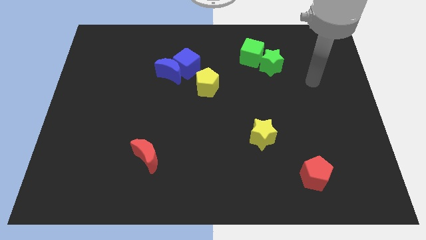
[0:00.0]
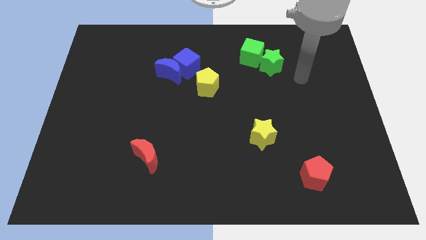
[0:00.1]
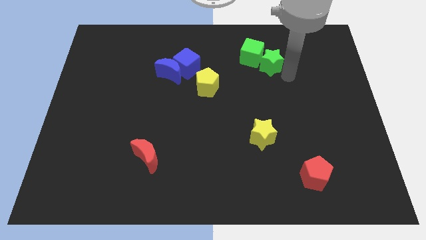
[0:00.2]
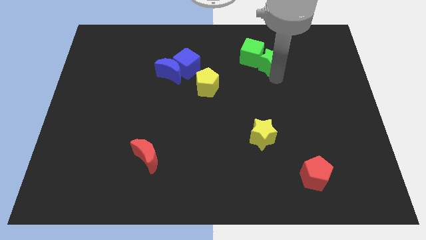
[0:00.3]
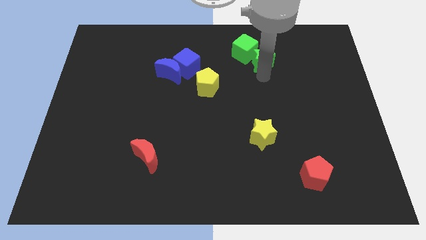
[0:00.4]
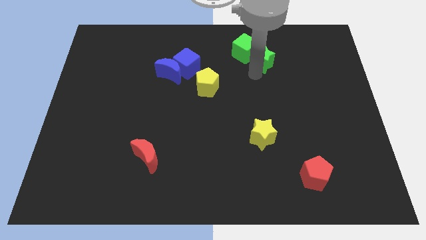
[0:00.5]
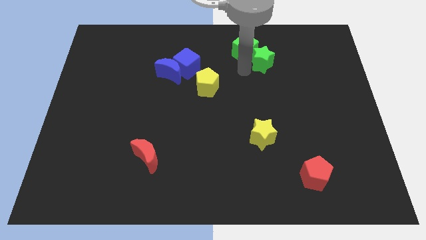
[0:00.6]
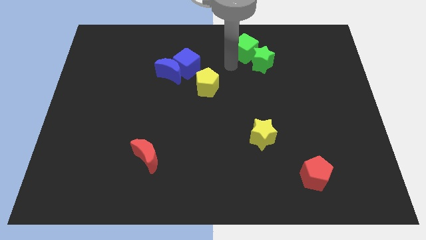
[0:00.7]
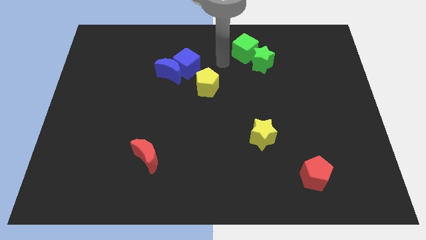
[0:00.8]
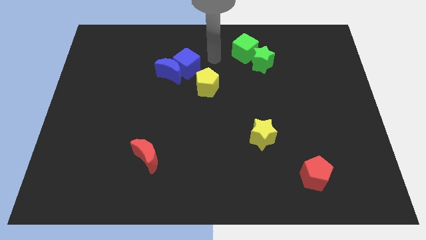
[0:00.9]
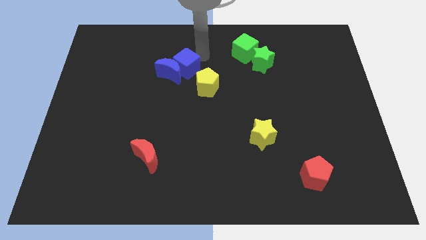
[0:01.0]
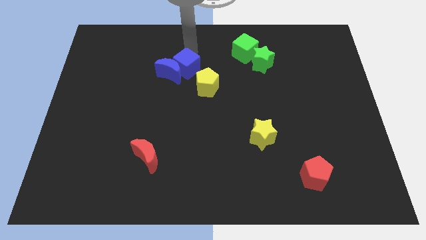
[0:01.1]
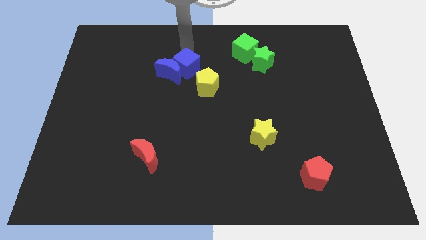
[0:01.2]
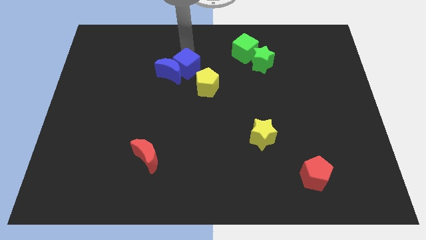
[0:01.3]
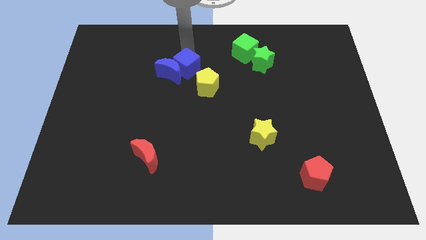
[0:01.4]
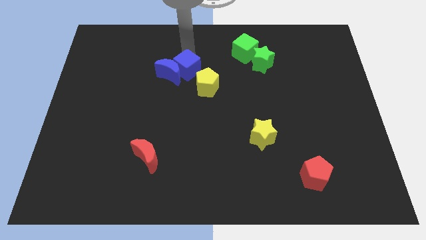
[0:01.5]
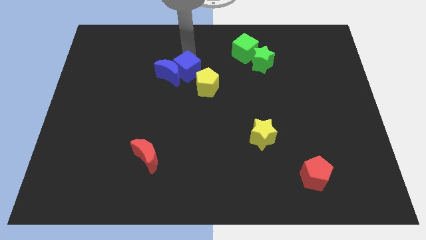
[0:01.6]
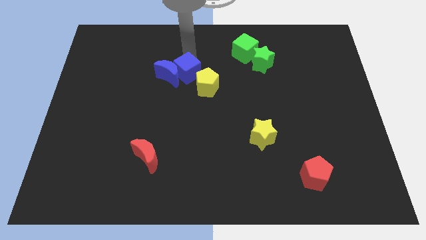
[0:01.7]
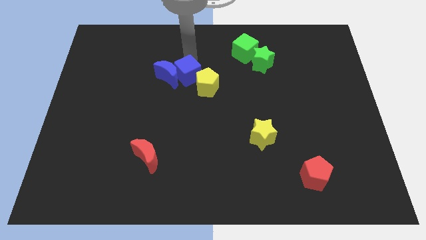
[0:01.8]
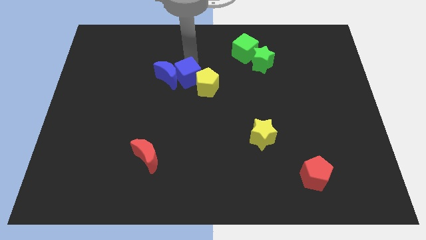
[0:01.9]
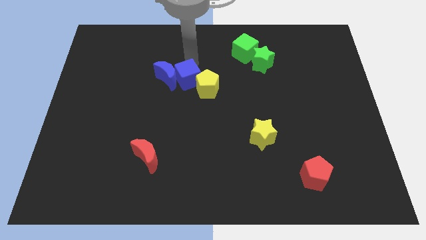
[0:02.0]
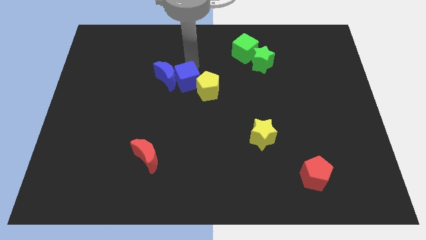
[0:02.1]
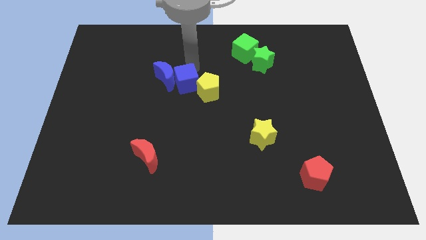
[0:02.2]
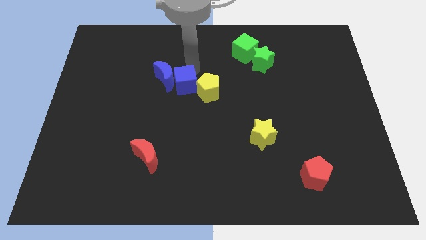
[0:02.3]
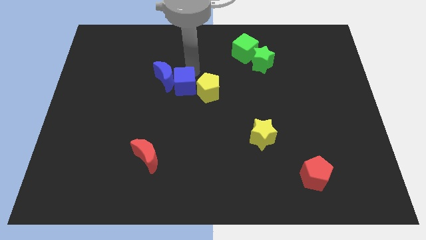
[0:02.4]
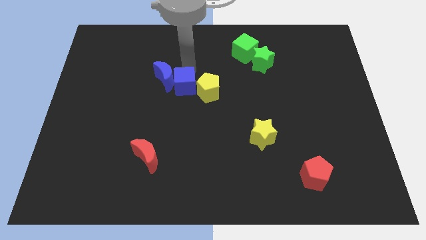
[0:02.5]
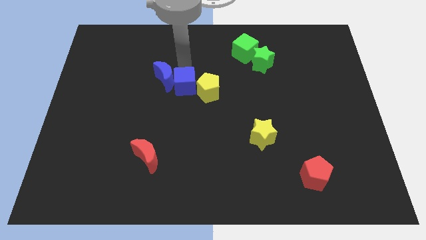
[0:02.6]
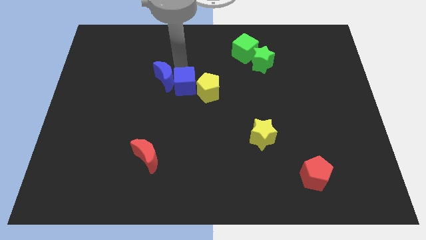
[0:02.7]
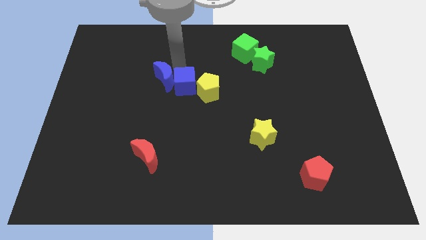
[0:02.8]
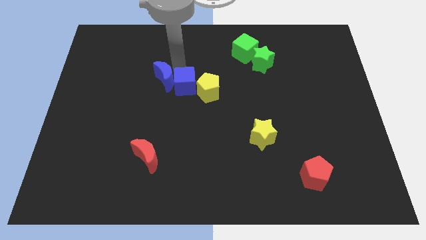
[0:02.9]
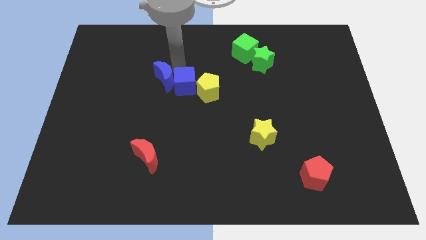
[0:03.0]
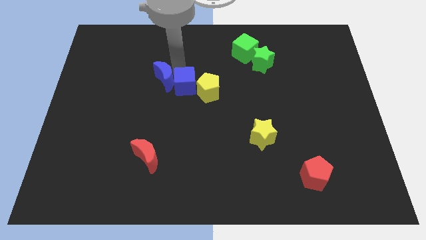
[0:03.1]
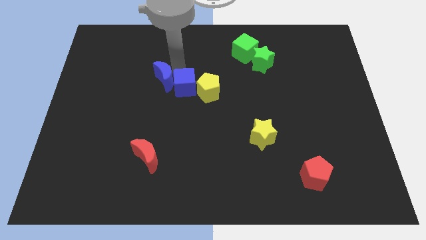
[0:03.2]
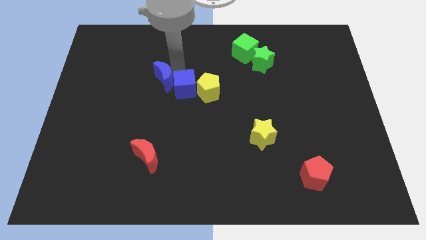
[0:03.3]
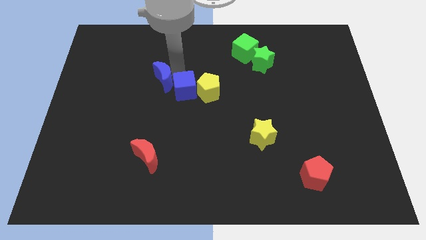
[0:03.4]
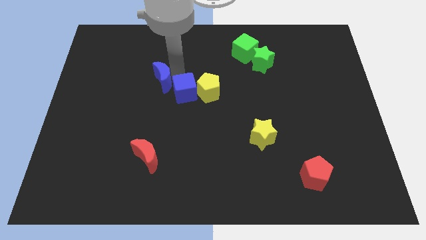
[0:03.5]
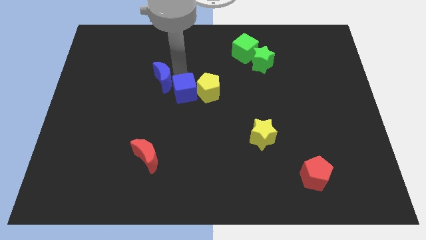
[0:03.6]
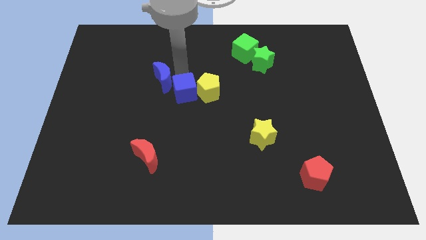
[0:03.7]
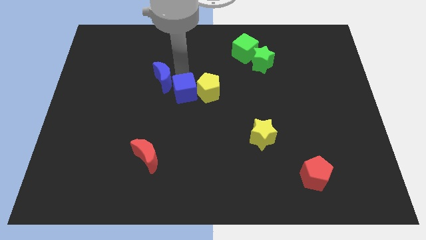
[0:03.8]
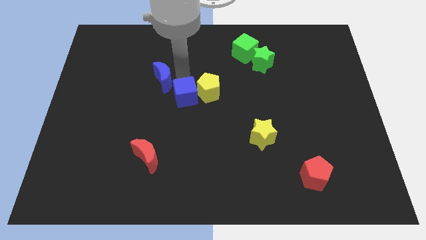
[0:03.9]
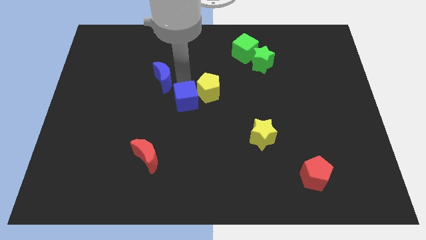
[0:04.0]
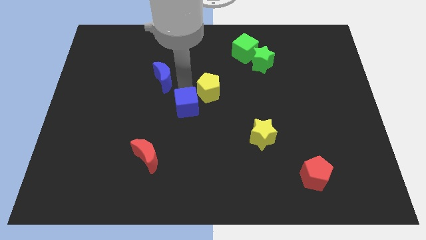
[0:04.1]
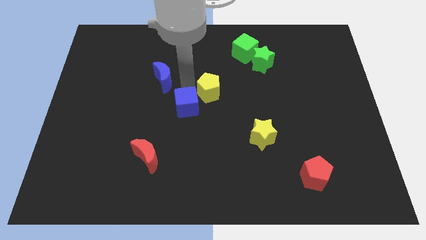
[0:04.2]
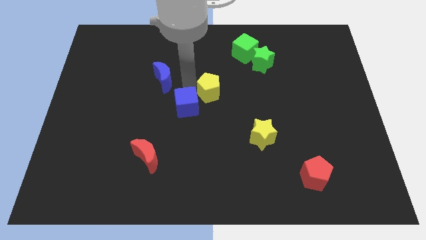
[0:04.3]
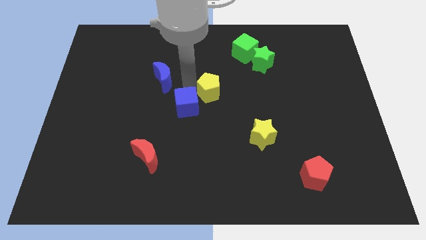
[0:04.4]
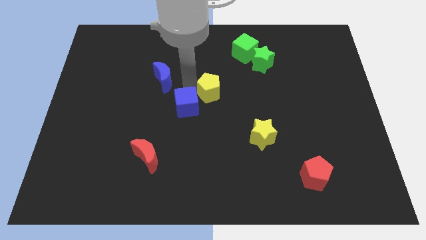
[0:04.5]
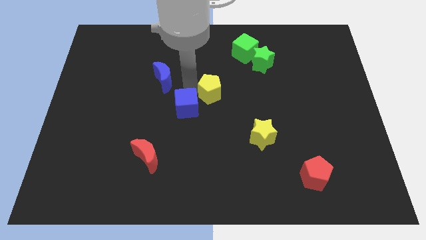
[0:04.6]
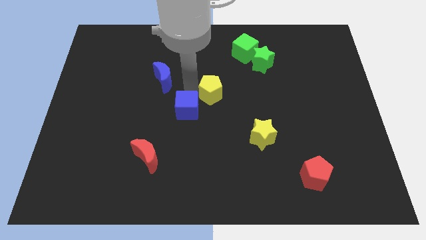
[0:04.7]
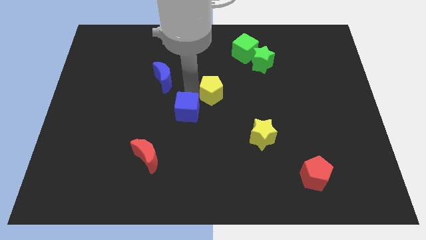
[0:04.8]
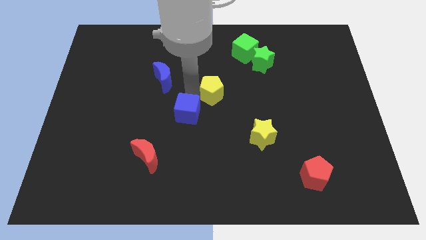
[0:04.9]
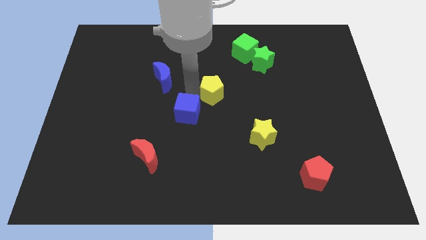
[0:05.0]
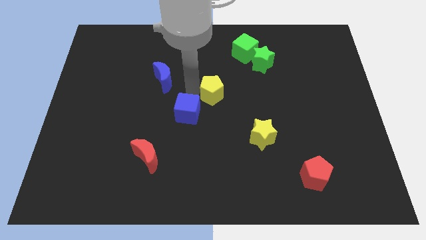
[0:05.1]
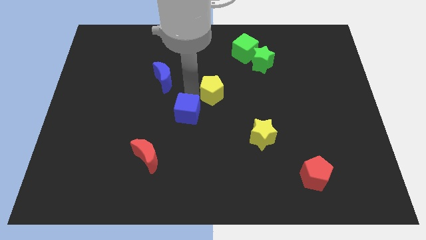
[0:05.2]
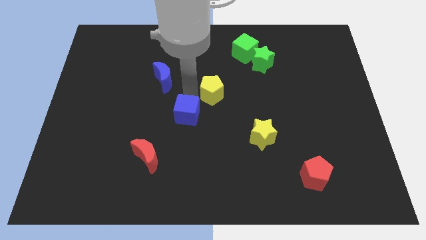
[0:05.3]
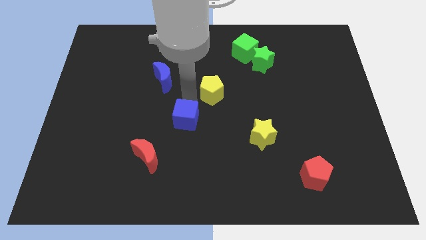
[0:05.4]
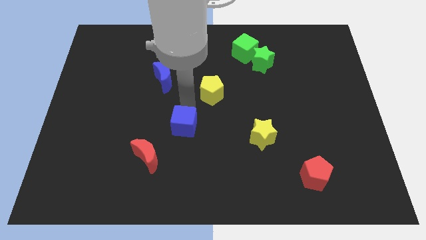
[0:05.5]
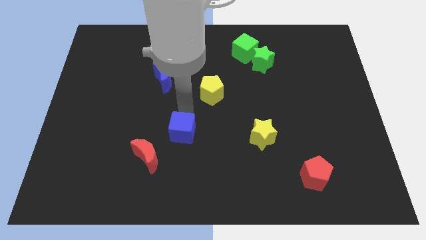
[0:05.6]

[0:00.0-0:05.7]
slide the blue cube down

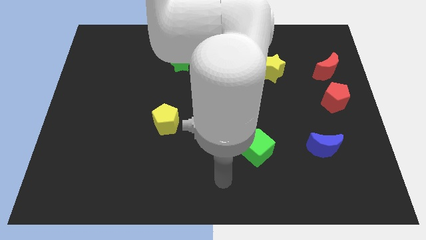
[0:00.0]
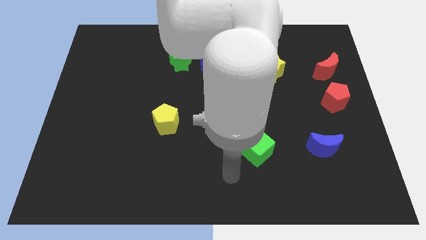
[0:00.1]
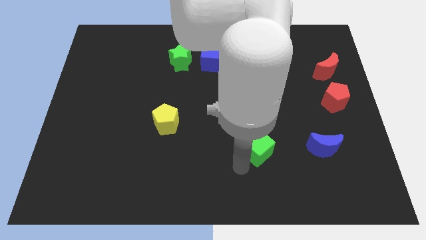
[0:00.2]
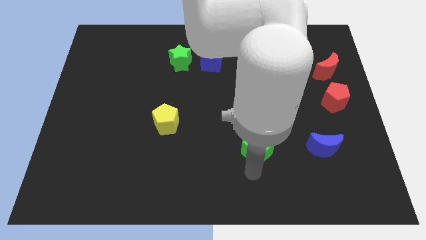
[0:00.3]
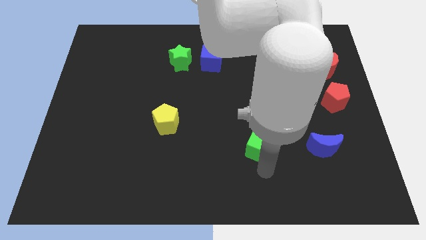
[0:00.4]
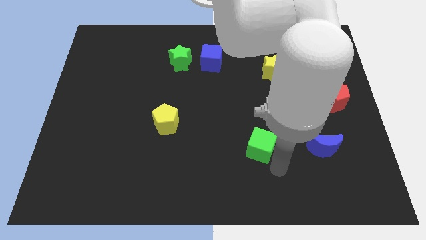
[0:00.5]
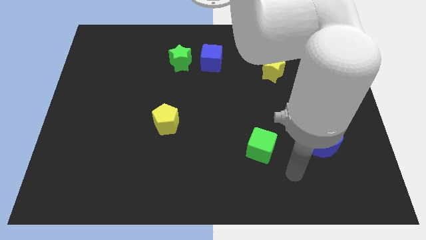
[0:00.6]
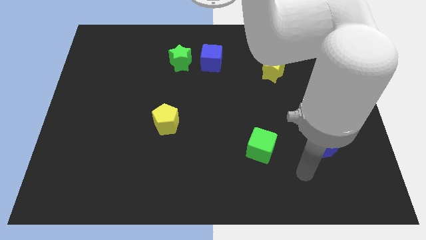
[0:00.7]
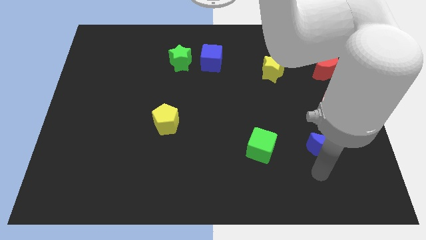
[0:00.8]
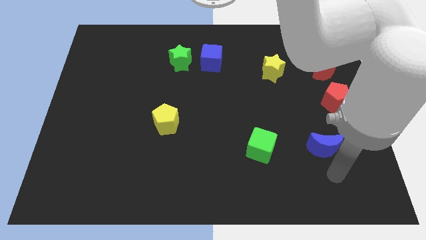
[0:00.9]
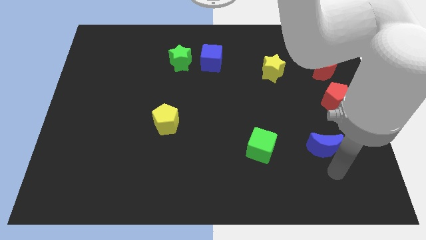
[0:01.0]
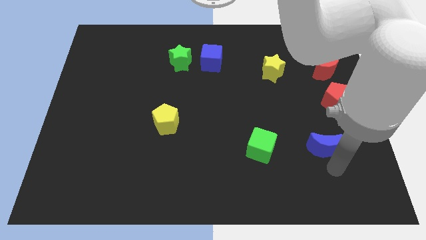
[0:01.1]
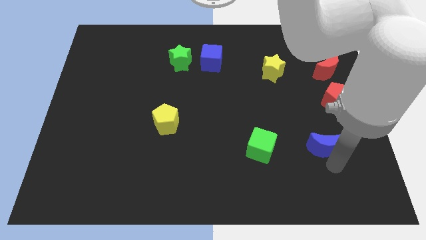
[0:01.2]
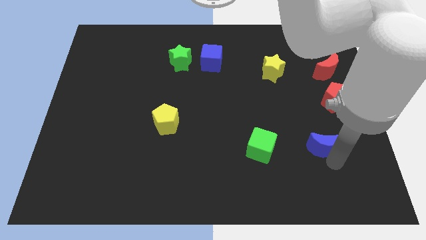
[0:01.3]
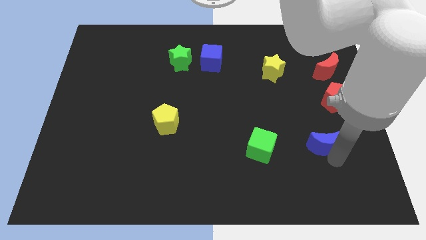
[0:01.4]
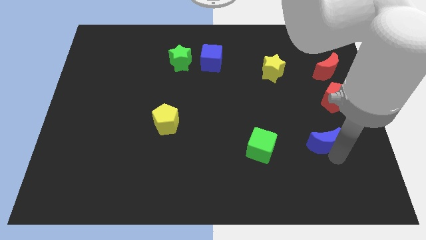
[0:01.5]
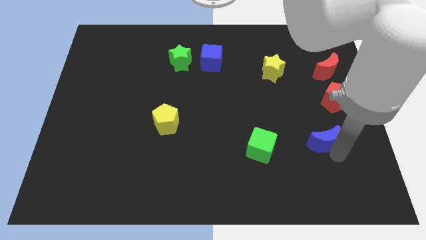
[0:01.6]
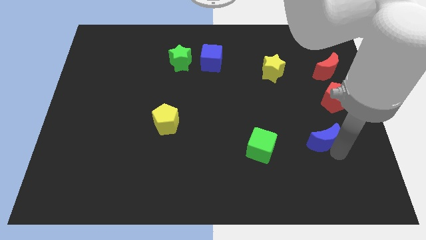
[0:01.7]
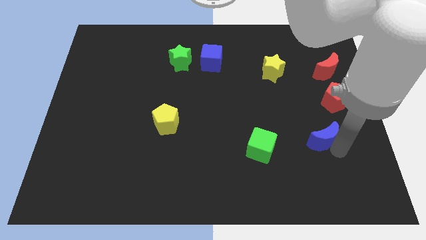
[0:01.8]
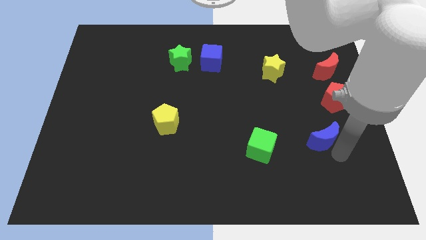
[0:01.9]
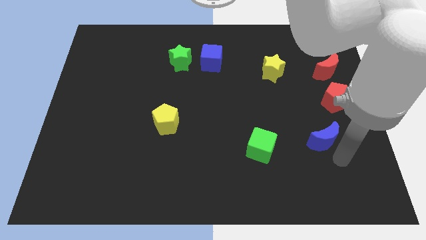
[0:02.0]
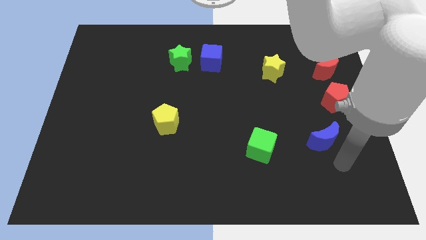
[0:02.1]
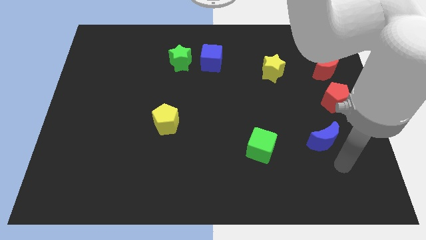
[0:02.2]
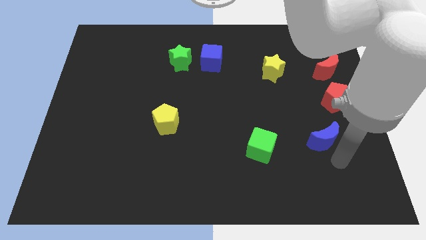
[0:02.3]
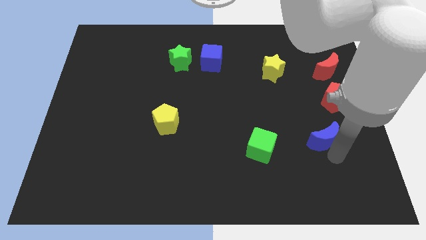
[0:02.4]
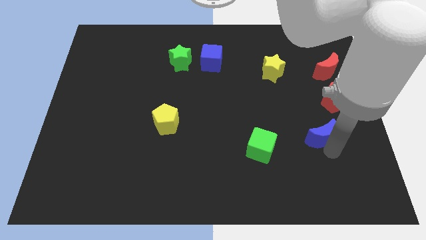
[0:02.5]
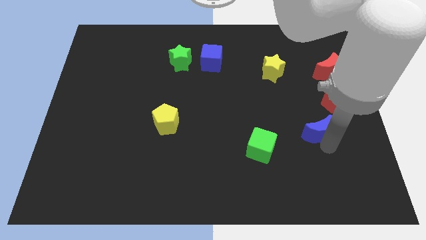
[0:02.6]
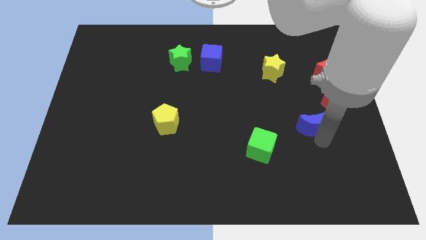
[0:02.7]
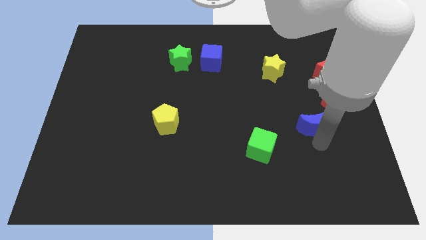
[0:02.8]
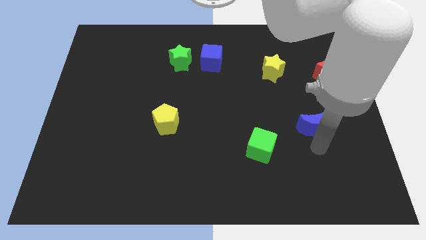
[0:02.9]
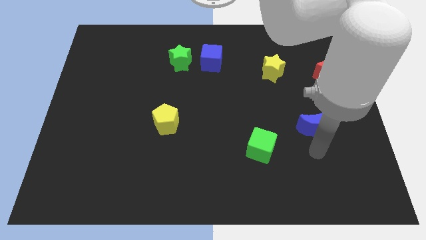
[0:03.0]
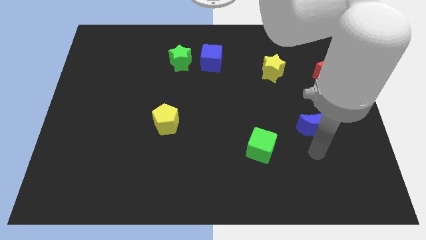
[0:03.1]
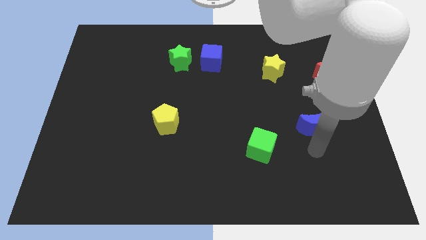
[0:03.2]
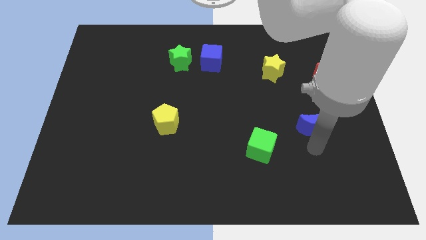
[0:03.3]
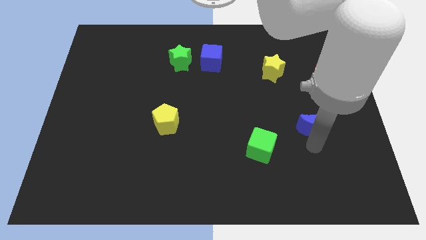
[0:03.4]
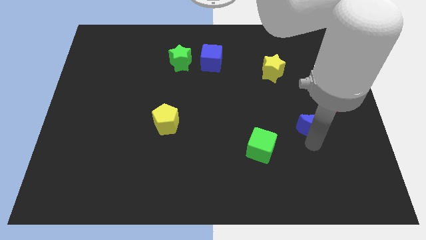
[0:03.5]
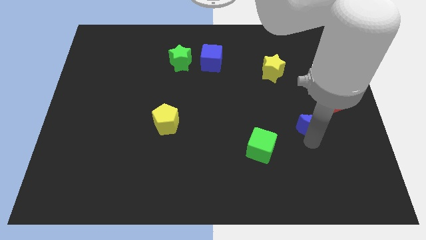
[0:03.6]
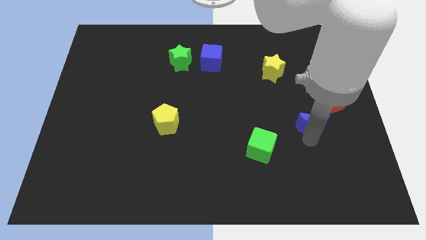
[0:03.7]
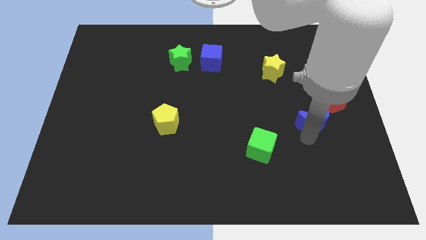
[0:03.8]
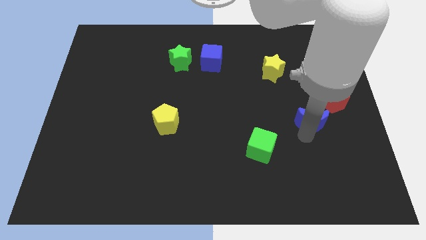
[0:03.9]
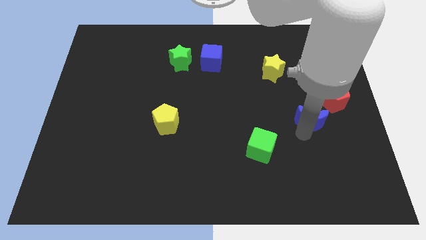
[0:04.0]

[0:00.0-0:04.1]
slide the blue moon up somewhat
